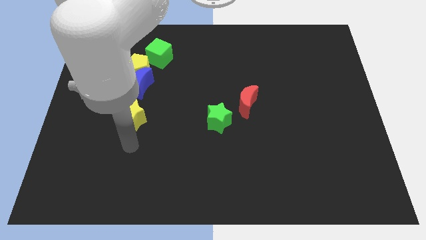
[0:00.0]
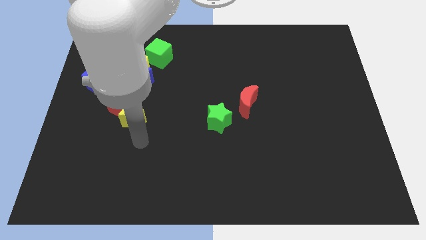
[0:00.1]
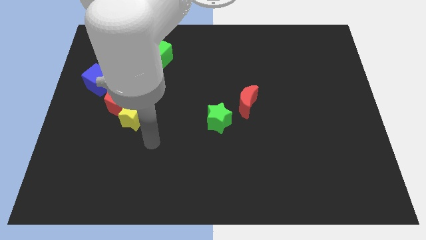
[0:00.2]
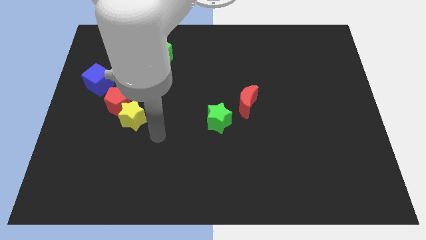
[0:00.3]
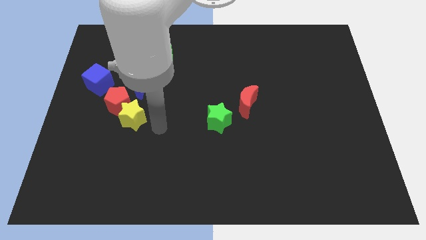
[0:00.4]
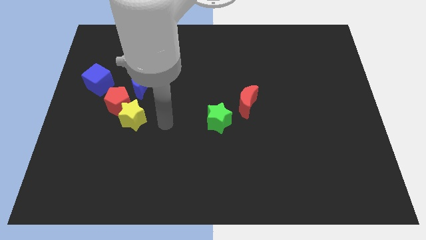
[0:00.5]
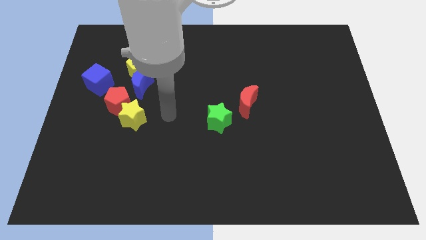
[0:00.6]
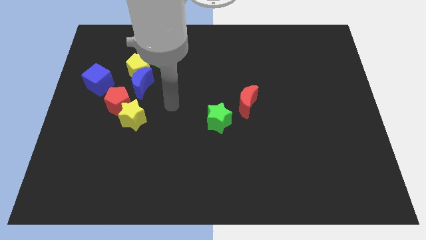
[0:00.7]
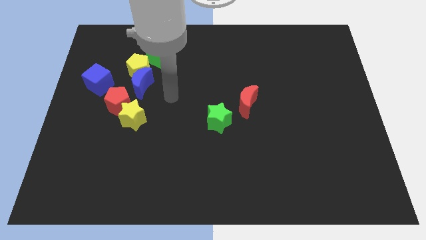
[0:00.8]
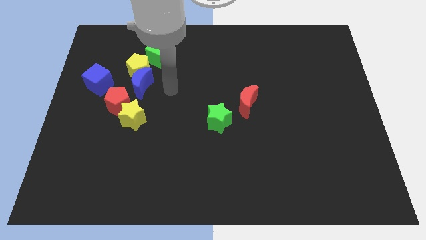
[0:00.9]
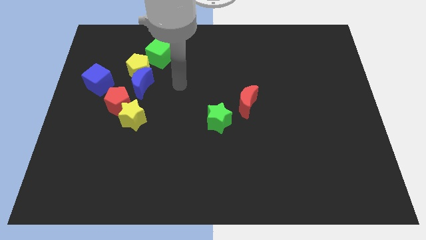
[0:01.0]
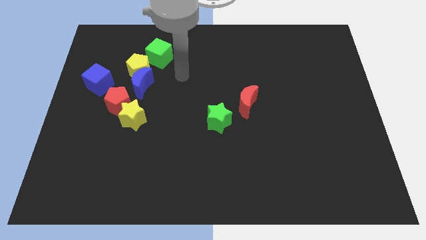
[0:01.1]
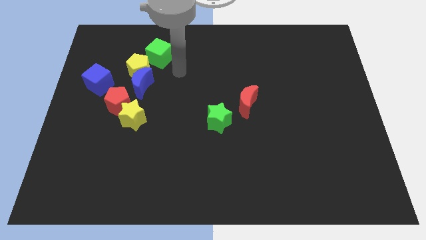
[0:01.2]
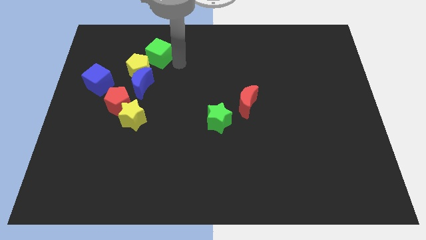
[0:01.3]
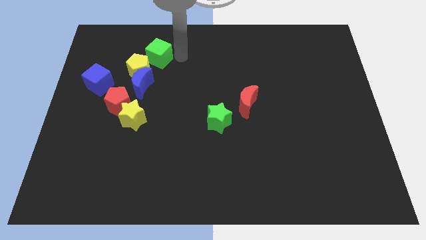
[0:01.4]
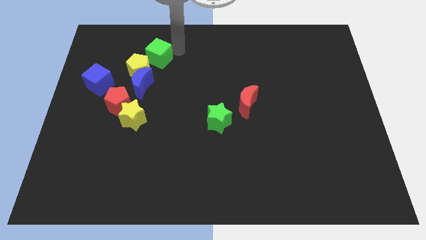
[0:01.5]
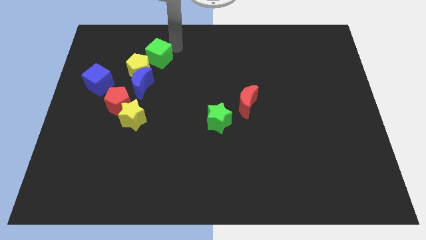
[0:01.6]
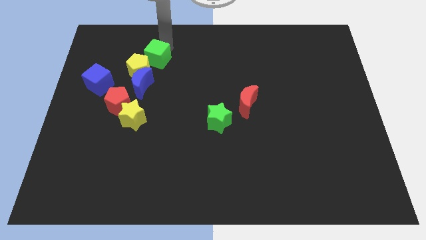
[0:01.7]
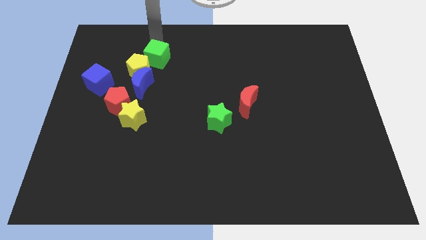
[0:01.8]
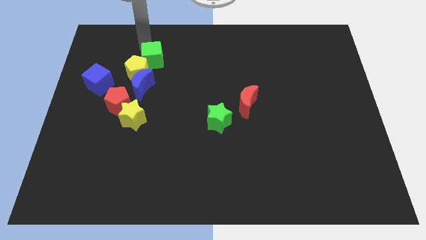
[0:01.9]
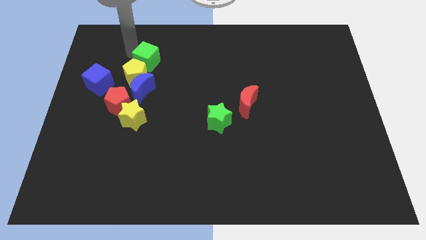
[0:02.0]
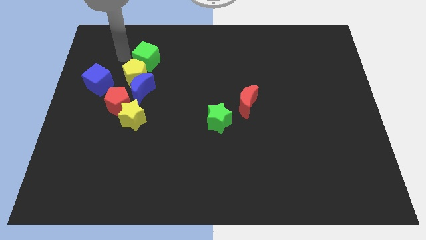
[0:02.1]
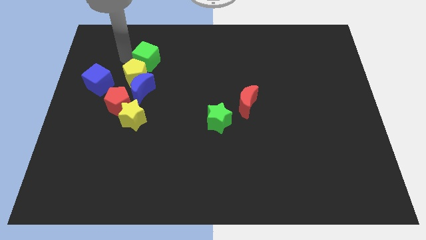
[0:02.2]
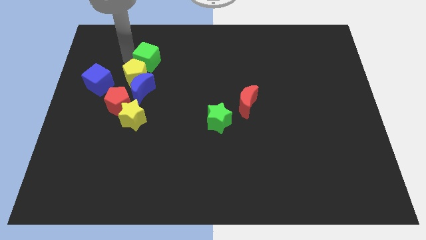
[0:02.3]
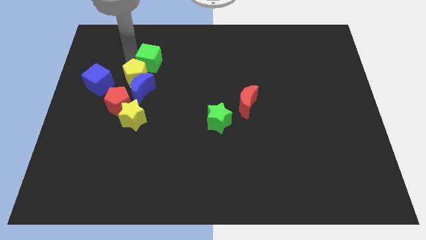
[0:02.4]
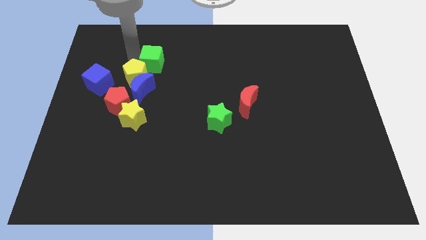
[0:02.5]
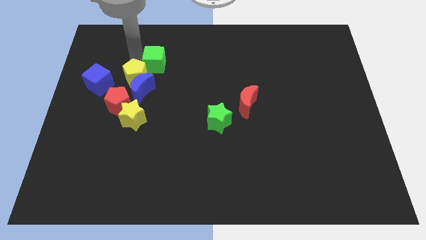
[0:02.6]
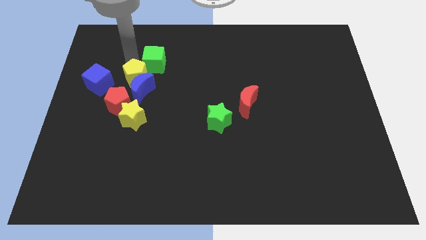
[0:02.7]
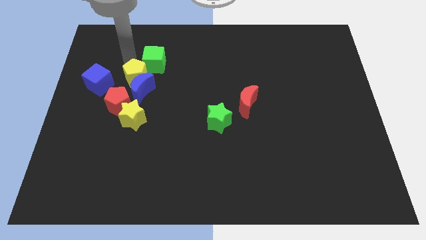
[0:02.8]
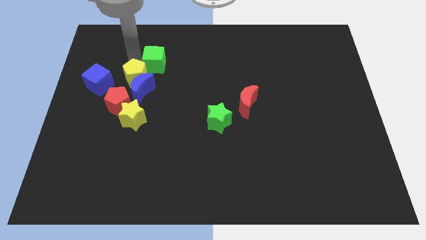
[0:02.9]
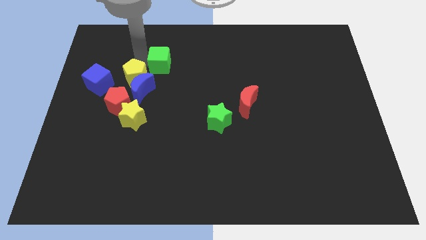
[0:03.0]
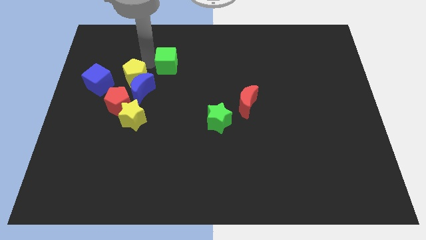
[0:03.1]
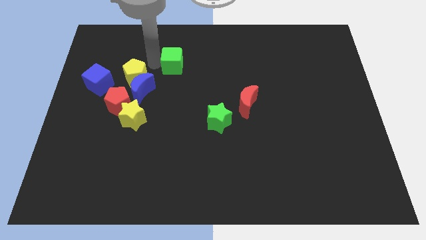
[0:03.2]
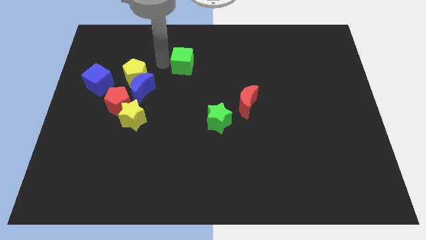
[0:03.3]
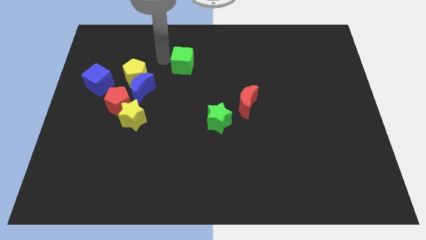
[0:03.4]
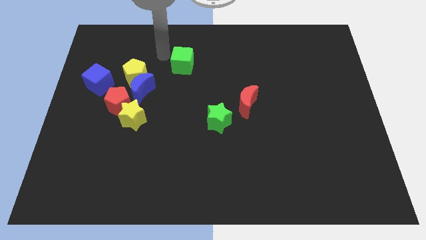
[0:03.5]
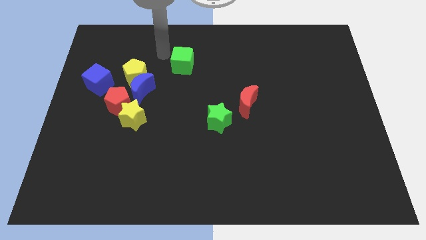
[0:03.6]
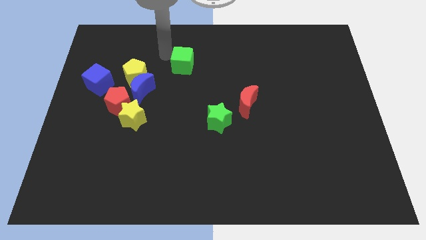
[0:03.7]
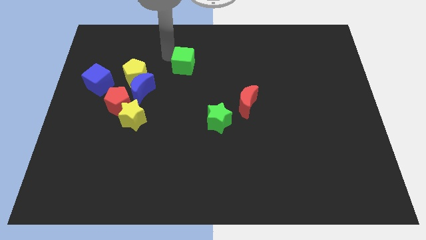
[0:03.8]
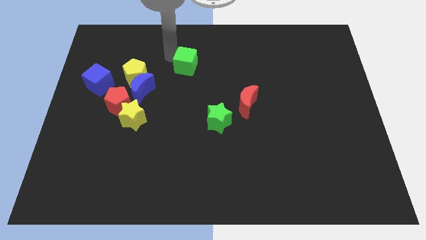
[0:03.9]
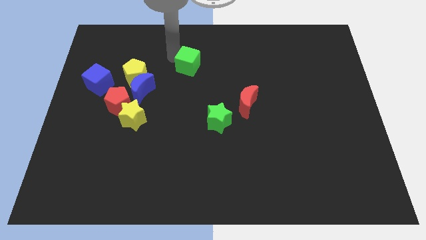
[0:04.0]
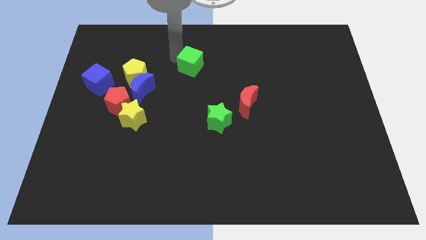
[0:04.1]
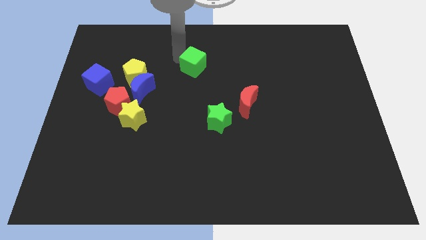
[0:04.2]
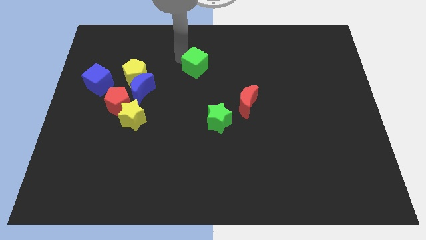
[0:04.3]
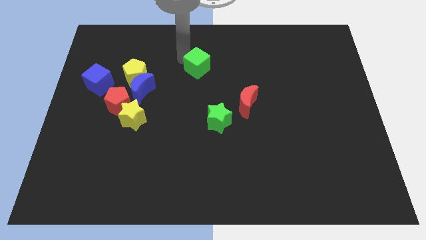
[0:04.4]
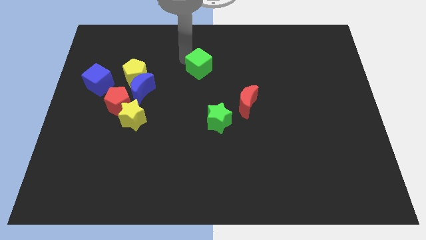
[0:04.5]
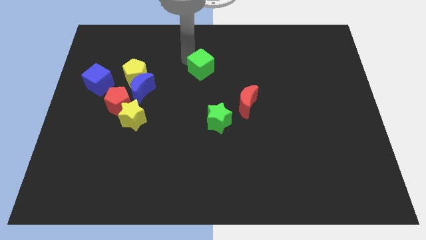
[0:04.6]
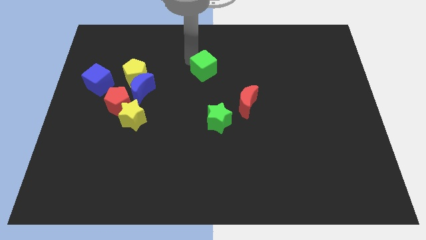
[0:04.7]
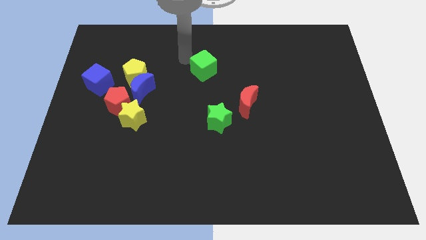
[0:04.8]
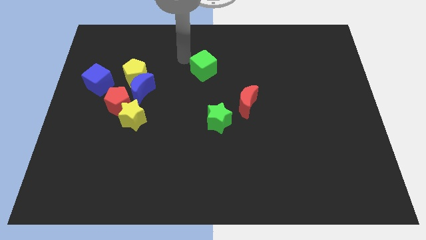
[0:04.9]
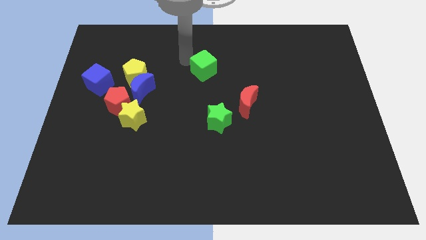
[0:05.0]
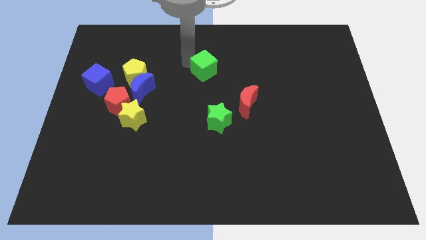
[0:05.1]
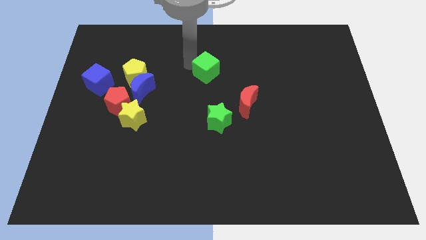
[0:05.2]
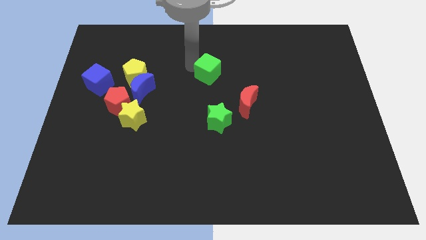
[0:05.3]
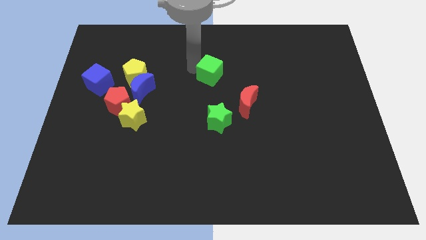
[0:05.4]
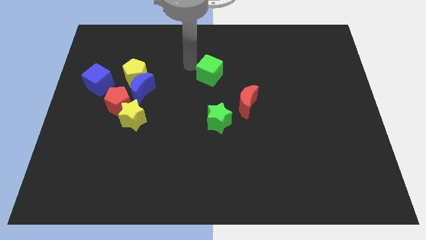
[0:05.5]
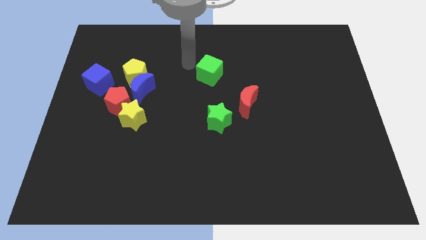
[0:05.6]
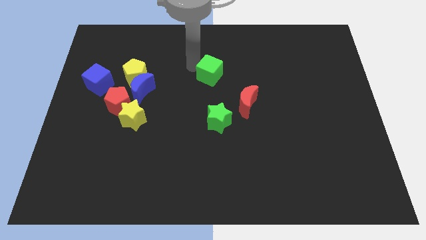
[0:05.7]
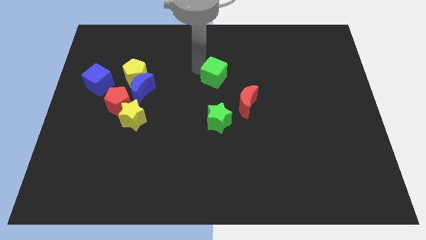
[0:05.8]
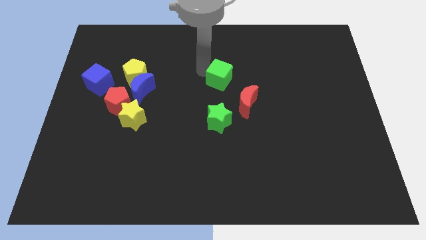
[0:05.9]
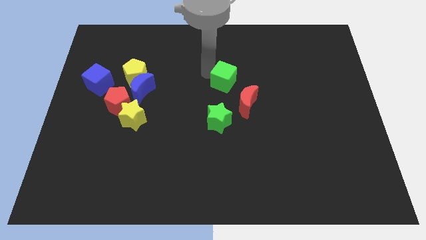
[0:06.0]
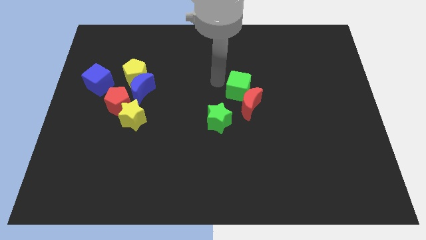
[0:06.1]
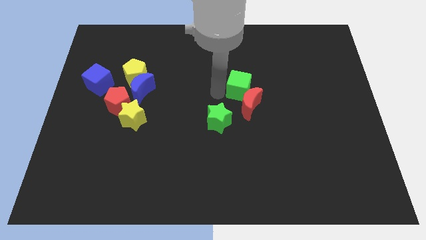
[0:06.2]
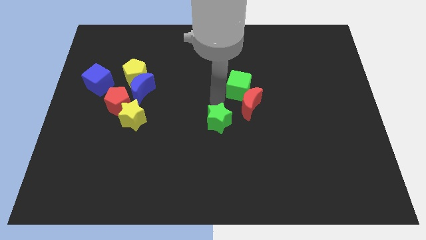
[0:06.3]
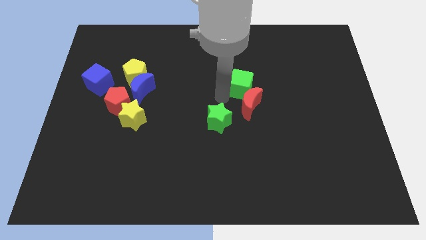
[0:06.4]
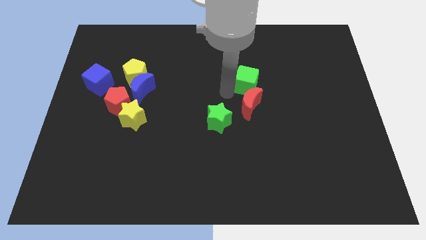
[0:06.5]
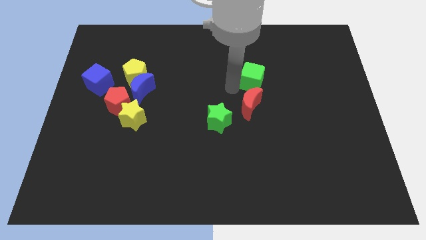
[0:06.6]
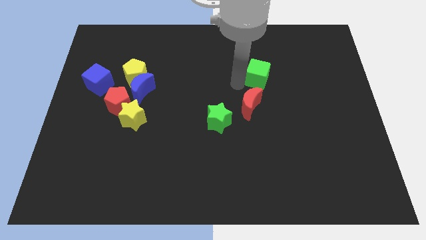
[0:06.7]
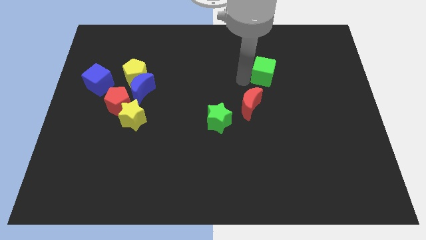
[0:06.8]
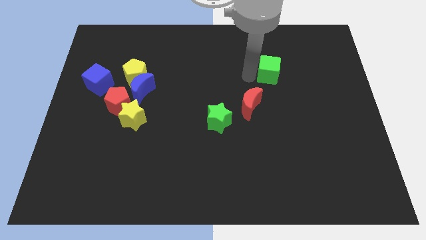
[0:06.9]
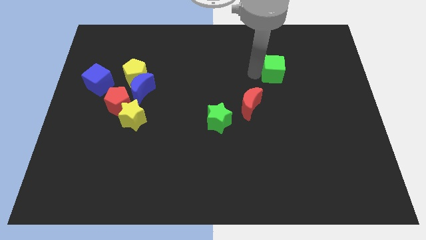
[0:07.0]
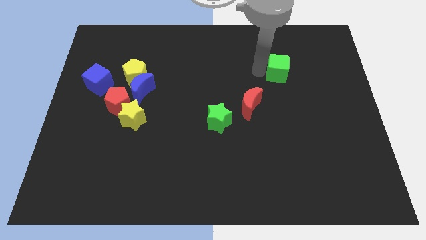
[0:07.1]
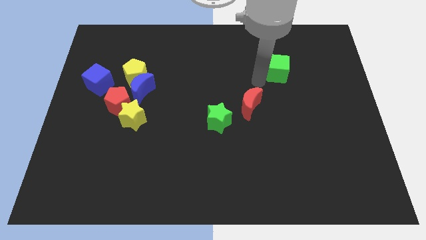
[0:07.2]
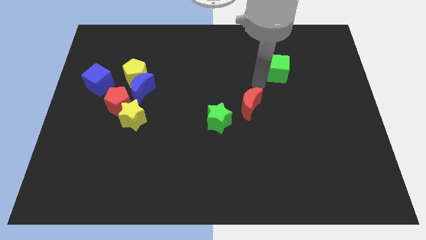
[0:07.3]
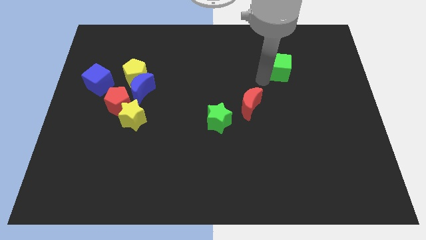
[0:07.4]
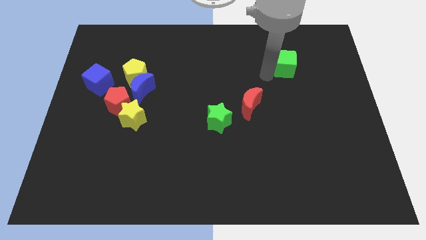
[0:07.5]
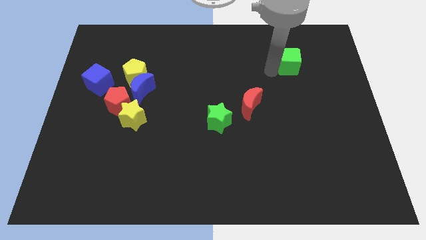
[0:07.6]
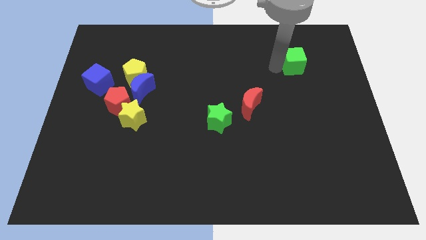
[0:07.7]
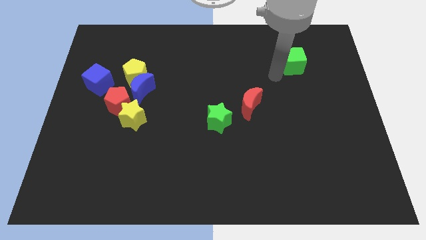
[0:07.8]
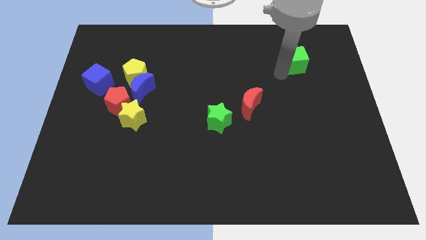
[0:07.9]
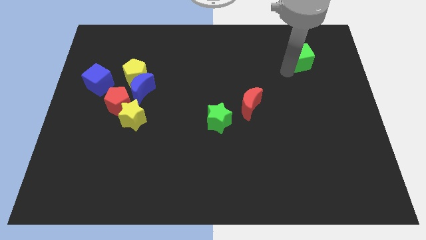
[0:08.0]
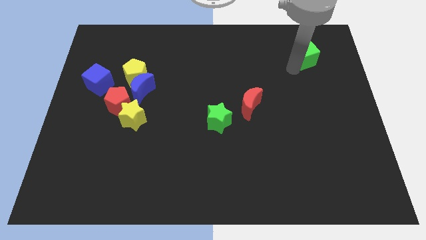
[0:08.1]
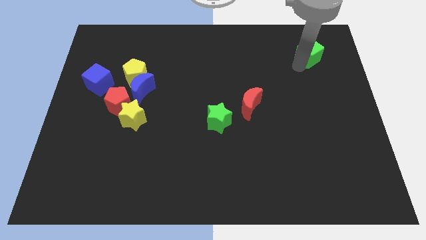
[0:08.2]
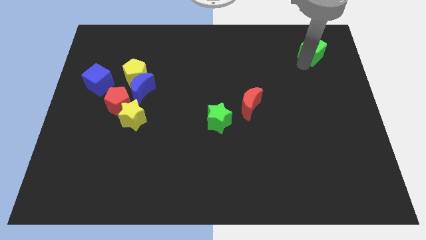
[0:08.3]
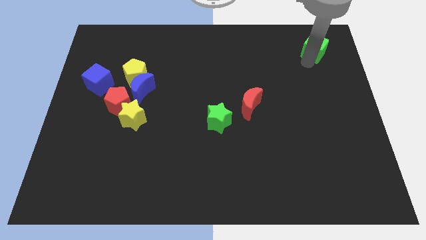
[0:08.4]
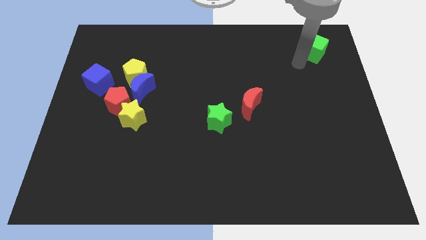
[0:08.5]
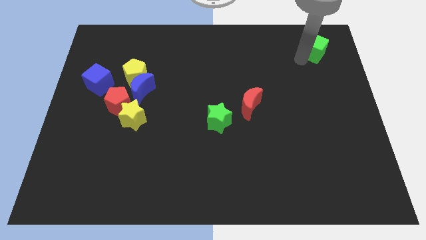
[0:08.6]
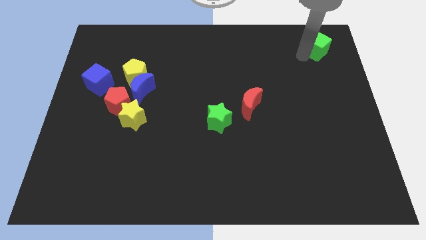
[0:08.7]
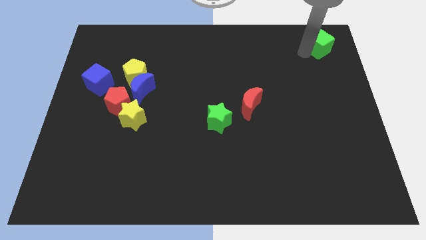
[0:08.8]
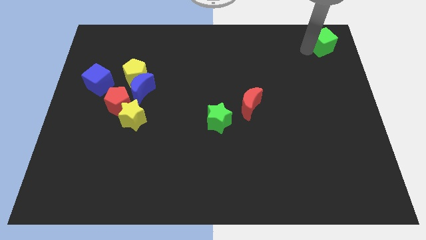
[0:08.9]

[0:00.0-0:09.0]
push the green cube to the top right
